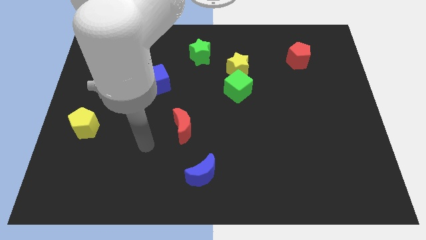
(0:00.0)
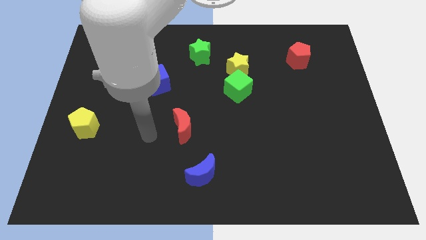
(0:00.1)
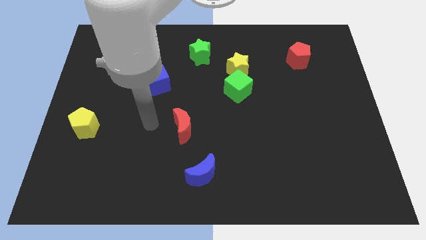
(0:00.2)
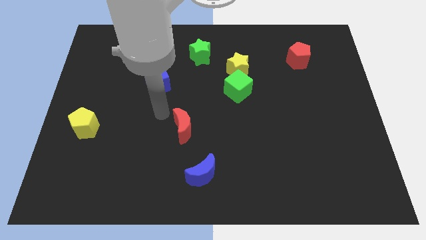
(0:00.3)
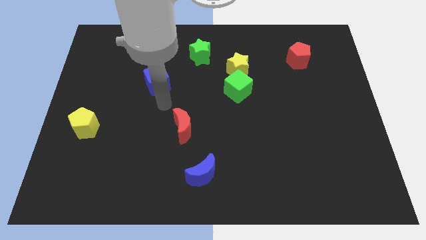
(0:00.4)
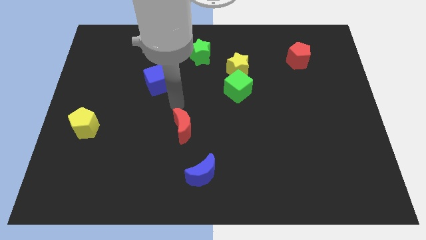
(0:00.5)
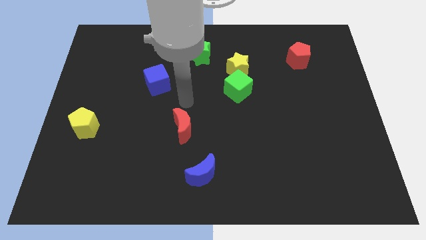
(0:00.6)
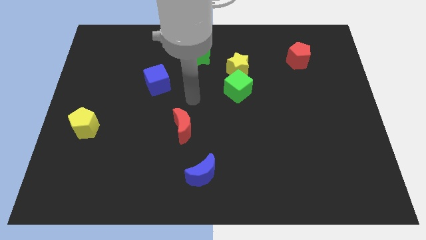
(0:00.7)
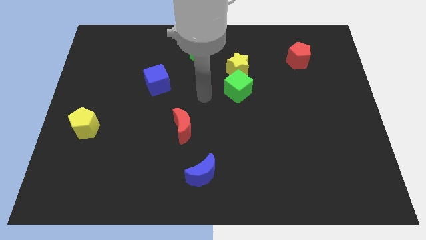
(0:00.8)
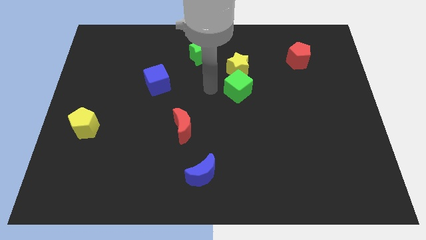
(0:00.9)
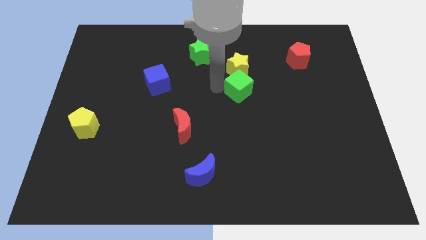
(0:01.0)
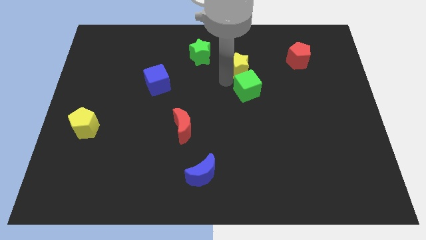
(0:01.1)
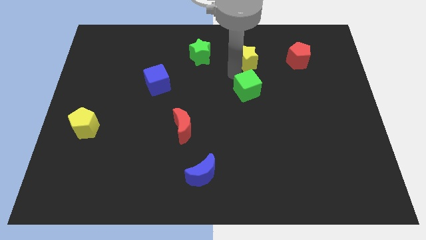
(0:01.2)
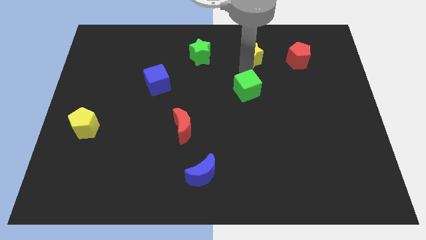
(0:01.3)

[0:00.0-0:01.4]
separate the green cube from the yellow star

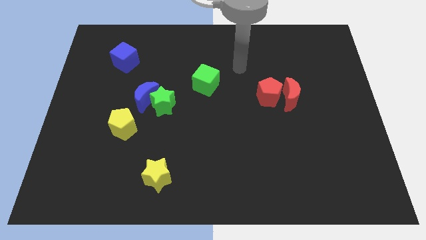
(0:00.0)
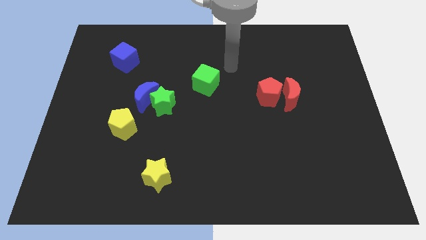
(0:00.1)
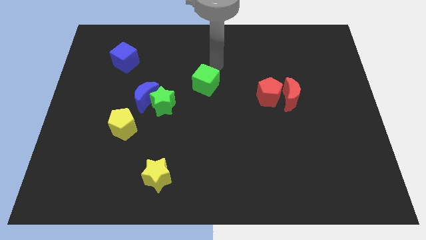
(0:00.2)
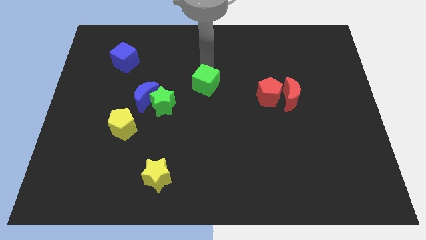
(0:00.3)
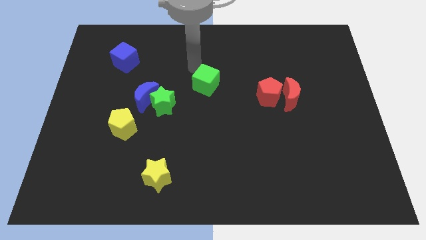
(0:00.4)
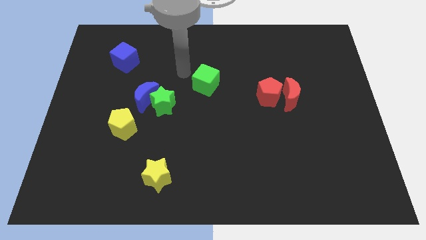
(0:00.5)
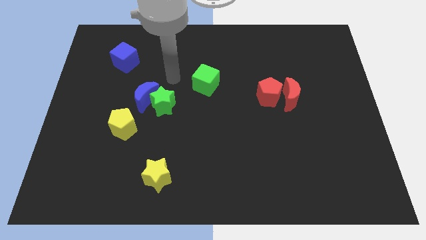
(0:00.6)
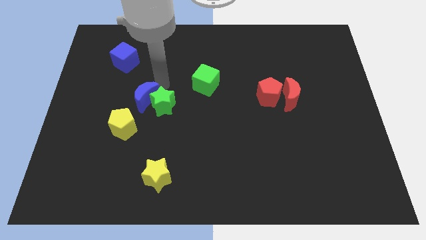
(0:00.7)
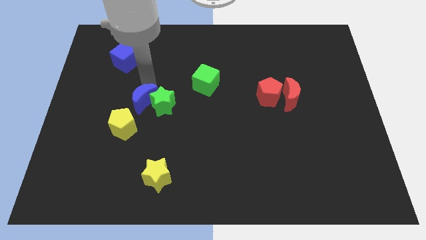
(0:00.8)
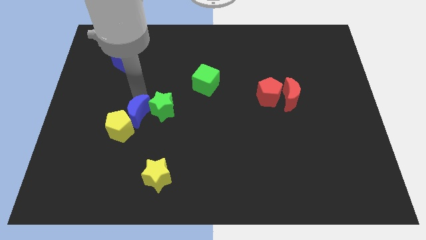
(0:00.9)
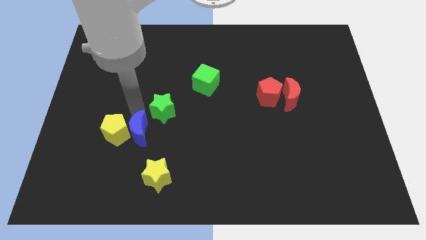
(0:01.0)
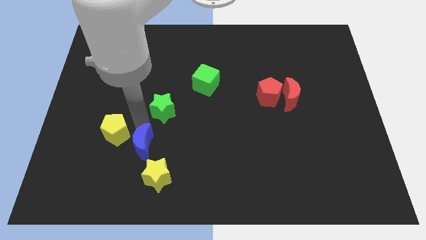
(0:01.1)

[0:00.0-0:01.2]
pull the green star apart from the blue moon

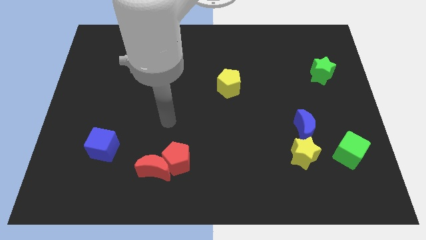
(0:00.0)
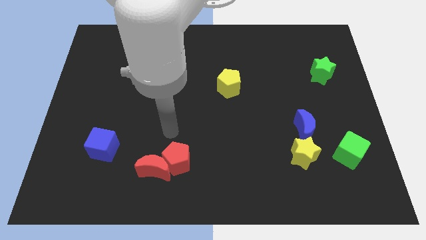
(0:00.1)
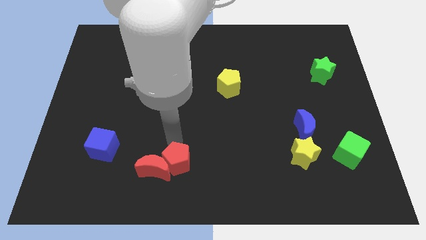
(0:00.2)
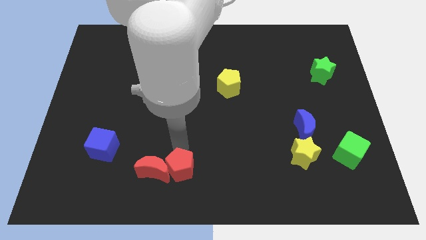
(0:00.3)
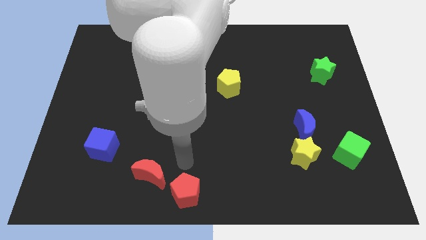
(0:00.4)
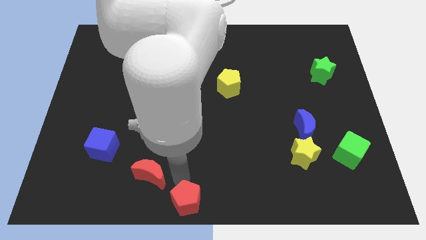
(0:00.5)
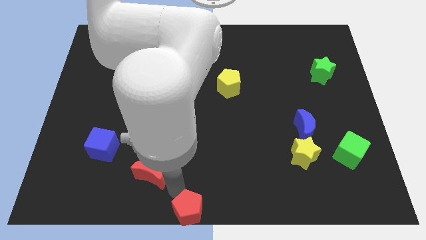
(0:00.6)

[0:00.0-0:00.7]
pull the red moon apart from the red pentagon

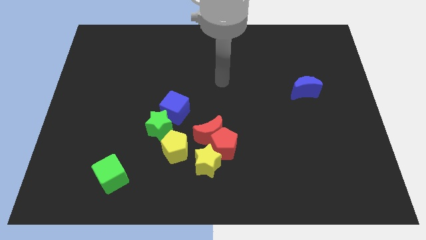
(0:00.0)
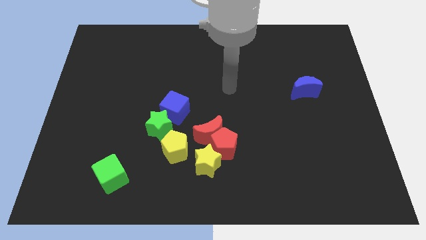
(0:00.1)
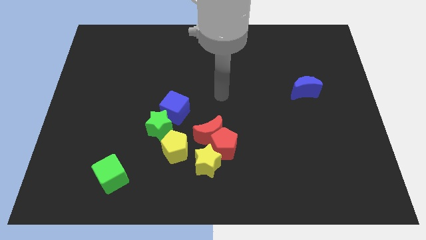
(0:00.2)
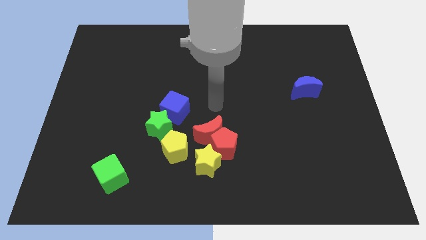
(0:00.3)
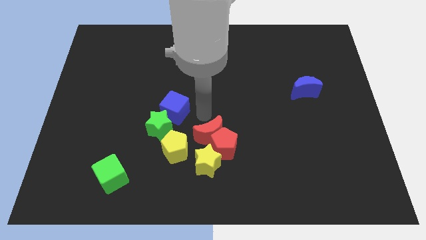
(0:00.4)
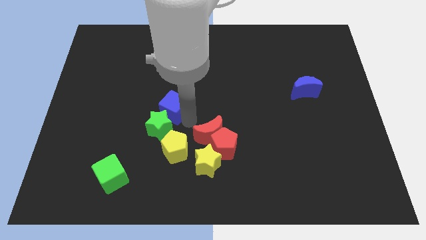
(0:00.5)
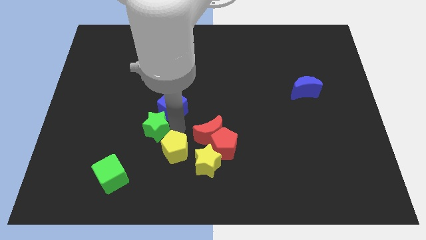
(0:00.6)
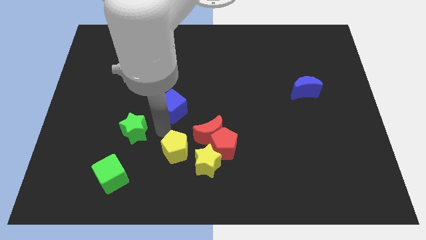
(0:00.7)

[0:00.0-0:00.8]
pull the blue cube apart from the green star

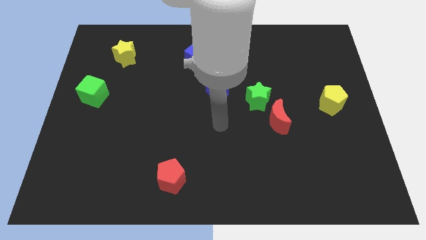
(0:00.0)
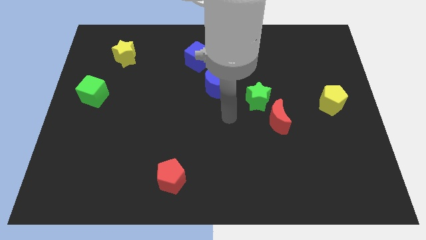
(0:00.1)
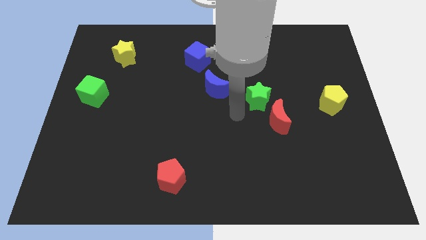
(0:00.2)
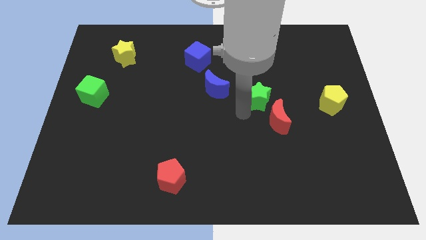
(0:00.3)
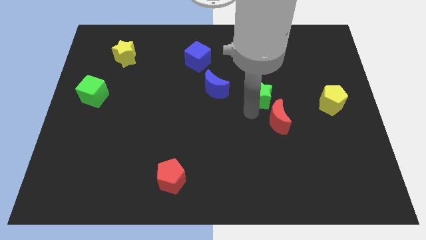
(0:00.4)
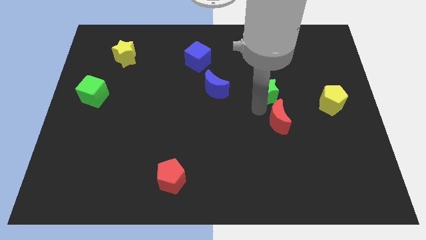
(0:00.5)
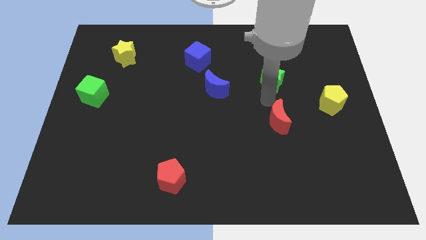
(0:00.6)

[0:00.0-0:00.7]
move the red moon away from the green star

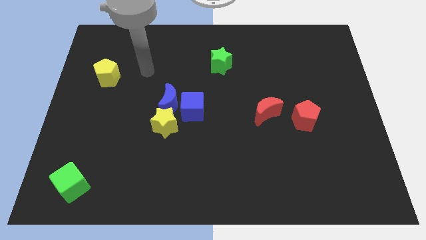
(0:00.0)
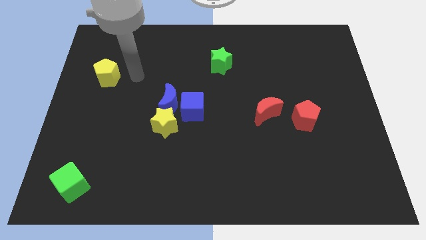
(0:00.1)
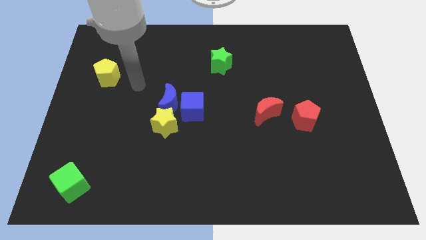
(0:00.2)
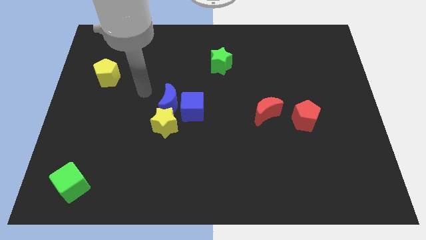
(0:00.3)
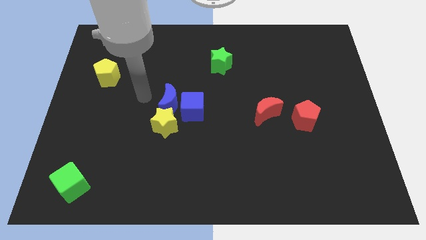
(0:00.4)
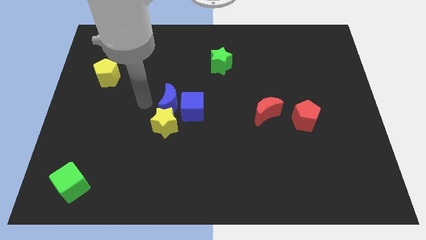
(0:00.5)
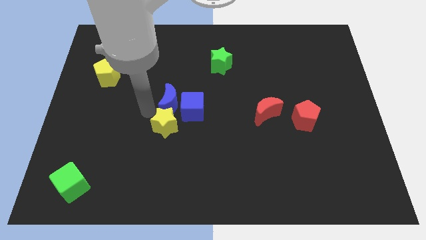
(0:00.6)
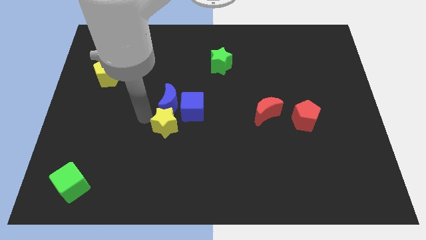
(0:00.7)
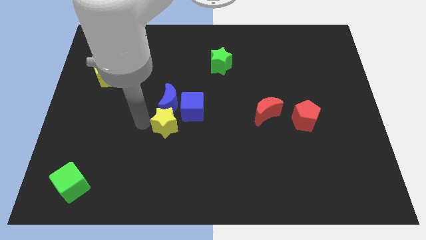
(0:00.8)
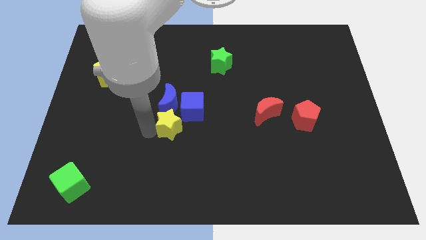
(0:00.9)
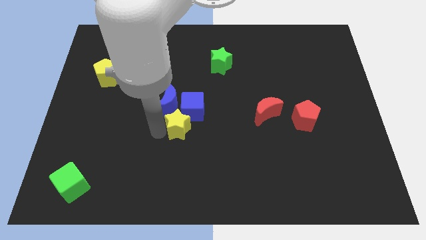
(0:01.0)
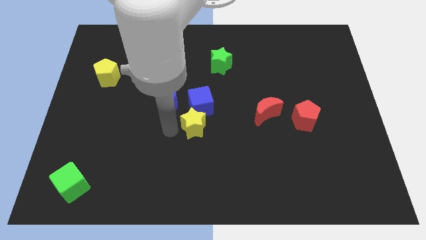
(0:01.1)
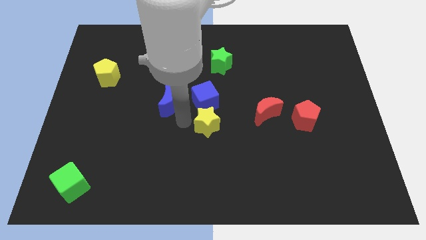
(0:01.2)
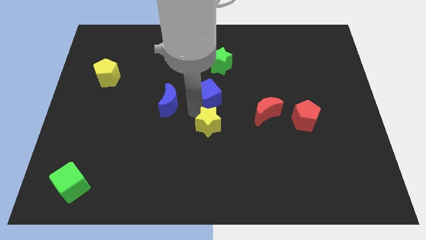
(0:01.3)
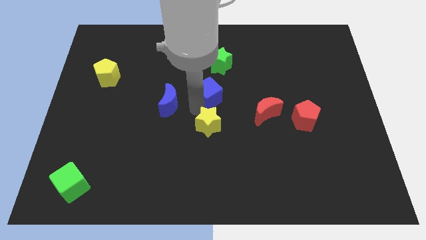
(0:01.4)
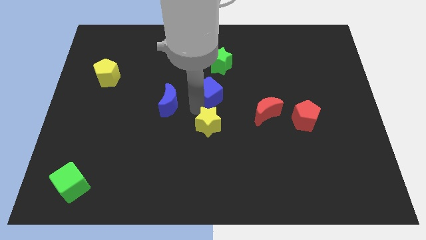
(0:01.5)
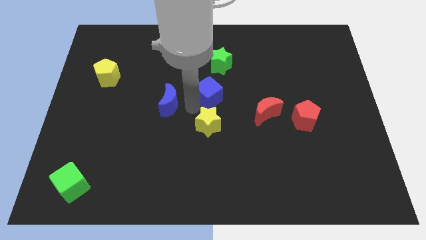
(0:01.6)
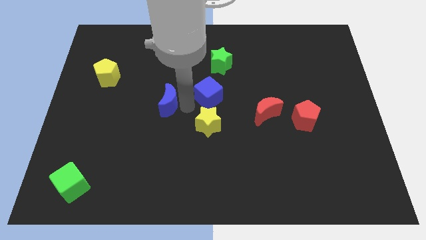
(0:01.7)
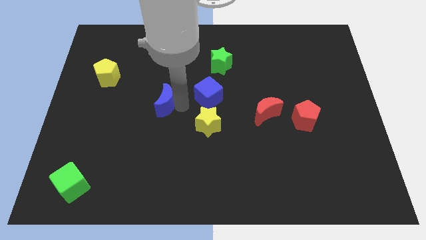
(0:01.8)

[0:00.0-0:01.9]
pull the blue moon apart from the blue cube and yellow star

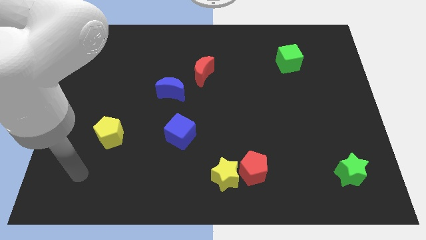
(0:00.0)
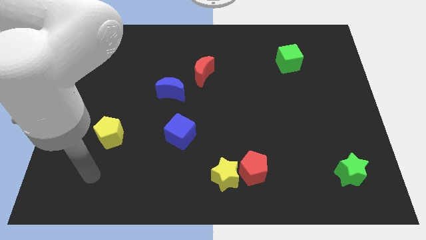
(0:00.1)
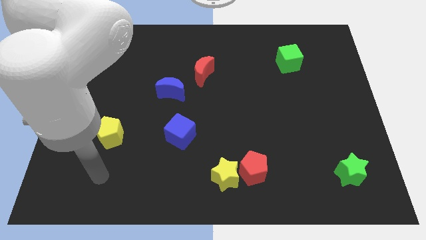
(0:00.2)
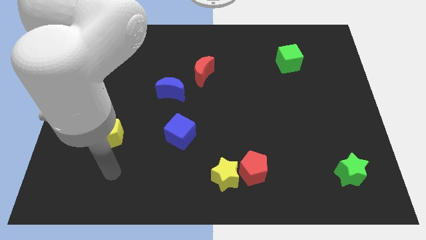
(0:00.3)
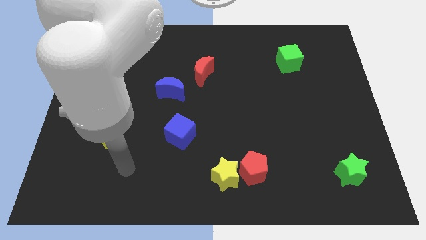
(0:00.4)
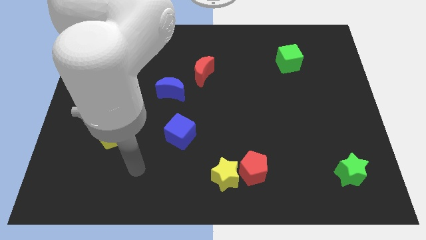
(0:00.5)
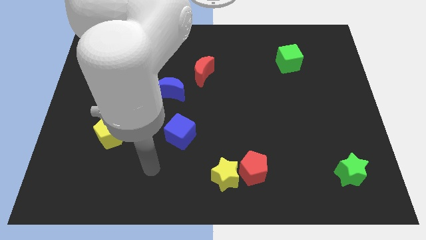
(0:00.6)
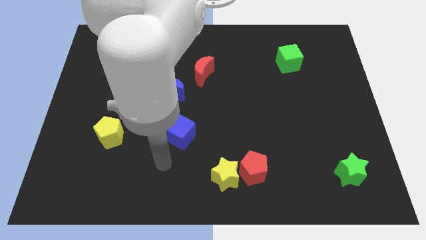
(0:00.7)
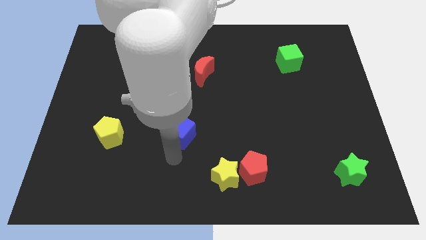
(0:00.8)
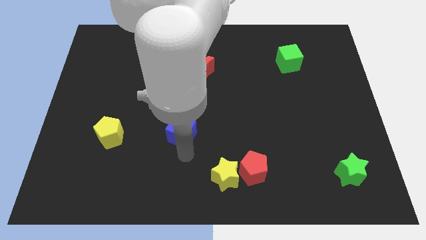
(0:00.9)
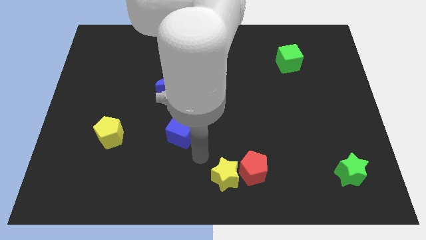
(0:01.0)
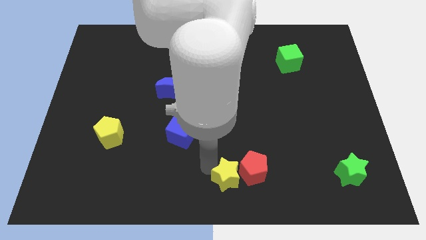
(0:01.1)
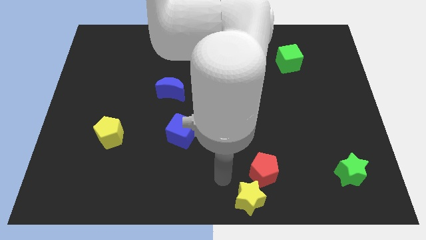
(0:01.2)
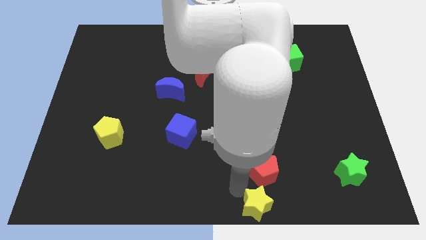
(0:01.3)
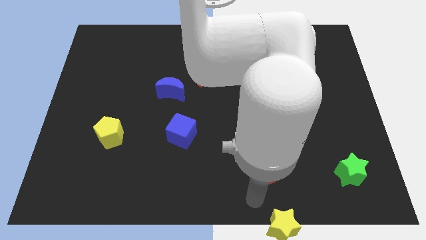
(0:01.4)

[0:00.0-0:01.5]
pull the red pentagon apart from the yellow star

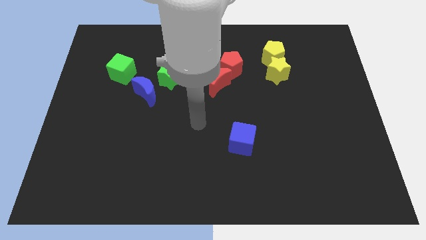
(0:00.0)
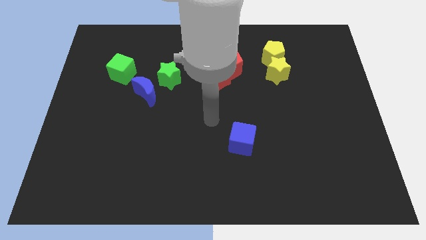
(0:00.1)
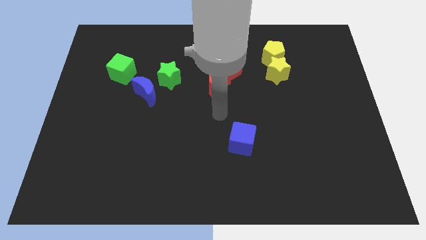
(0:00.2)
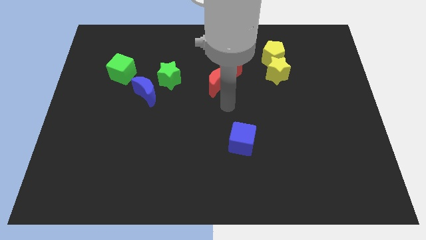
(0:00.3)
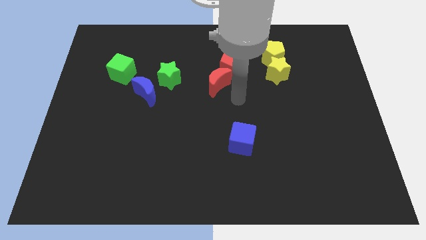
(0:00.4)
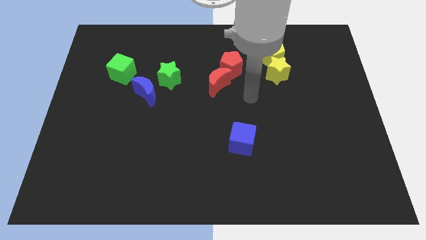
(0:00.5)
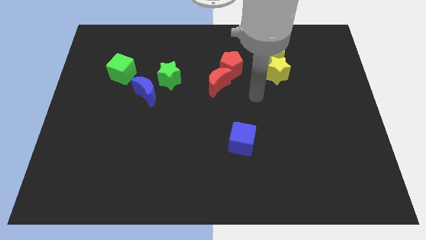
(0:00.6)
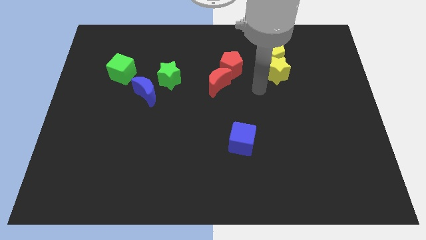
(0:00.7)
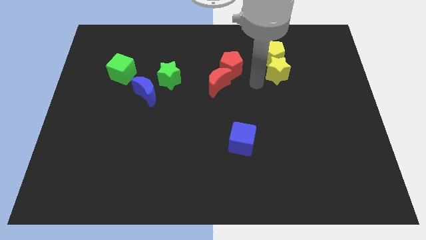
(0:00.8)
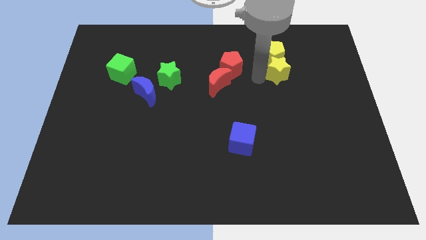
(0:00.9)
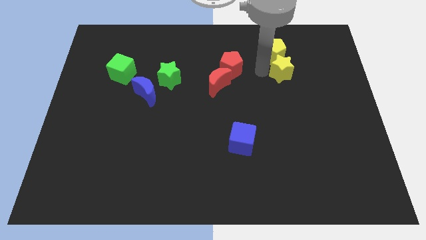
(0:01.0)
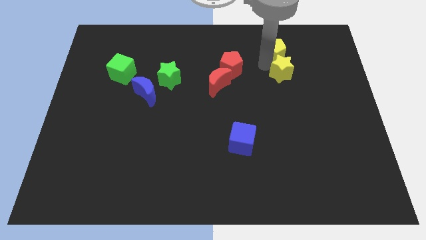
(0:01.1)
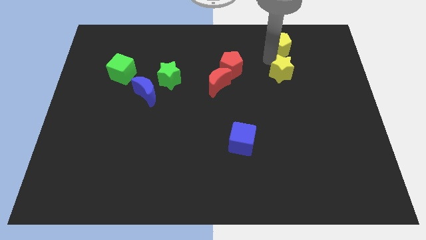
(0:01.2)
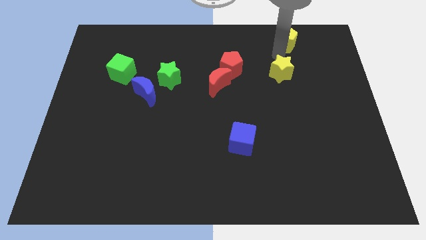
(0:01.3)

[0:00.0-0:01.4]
pull the yellow star apart from the yellow pentagon
